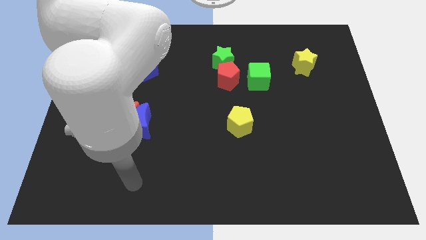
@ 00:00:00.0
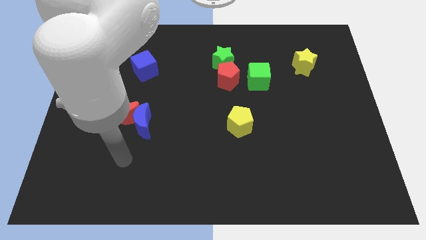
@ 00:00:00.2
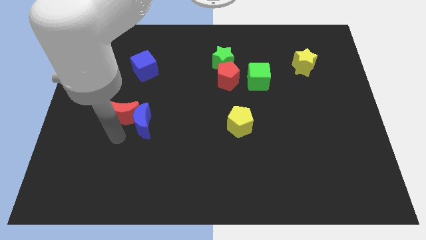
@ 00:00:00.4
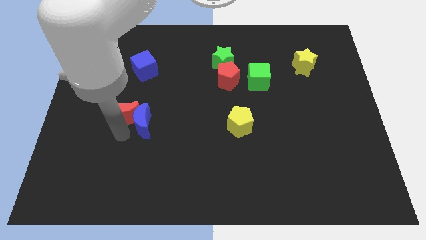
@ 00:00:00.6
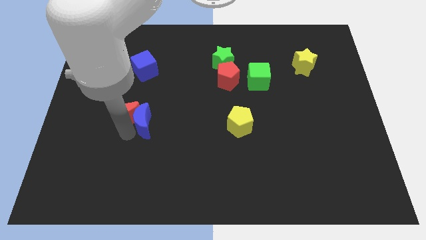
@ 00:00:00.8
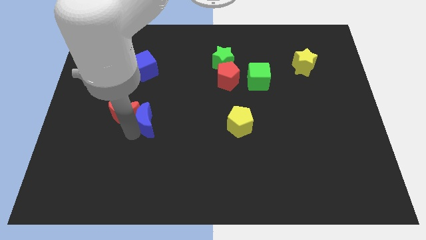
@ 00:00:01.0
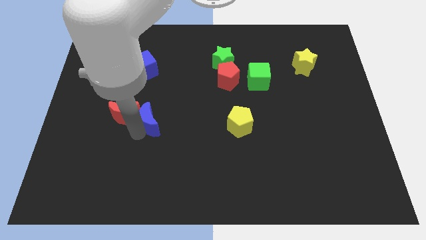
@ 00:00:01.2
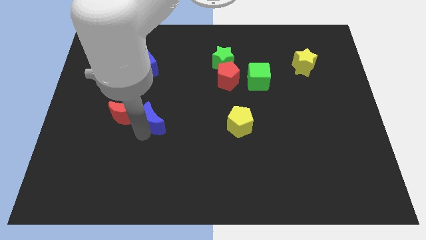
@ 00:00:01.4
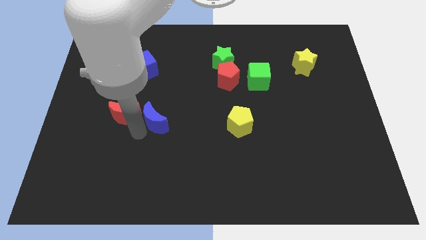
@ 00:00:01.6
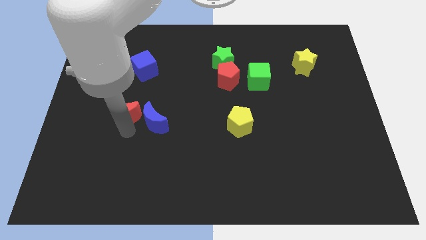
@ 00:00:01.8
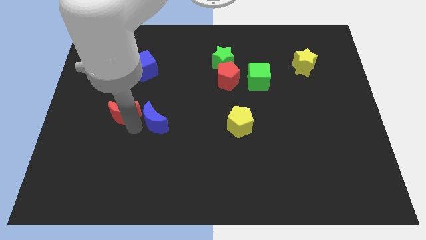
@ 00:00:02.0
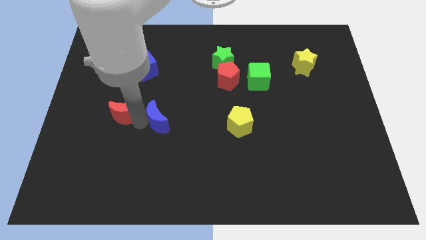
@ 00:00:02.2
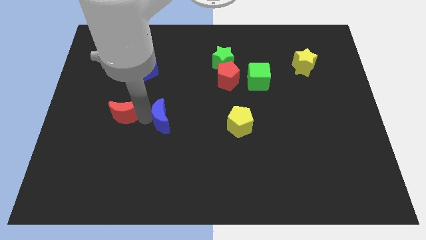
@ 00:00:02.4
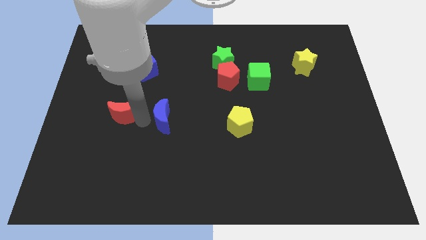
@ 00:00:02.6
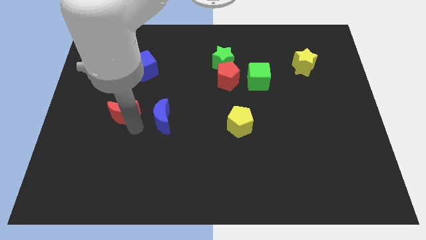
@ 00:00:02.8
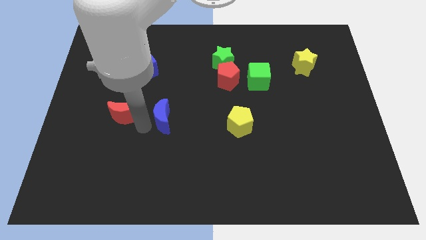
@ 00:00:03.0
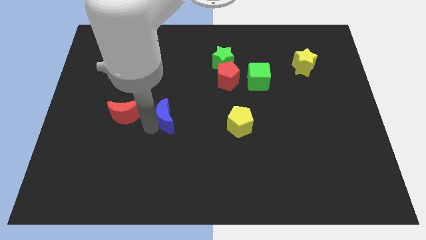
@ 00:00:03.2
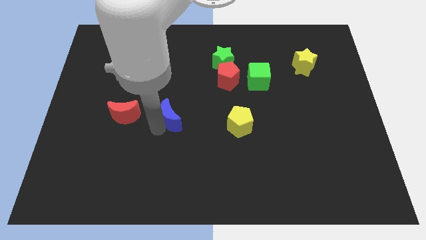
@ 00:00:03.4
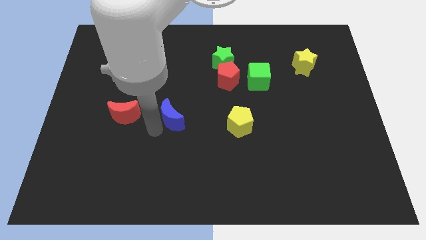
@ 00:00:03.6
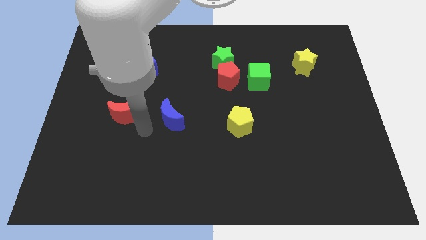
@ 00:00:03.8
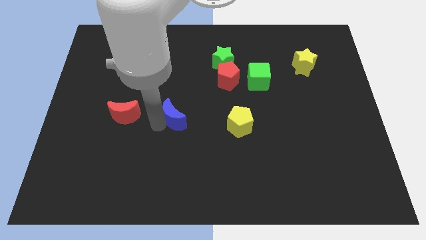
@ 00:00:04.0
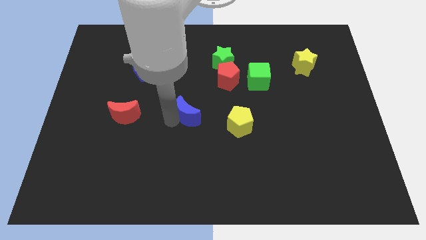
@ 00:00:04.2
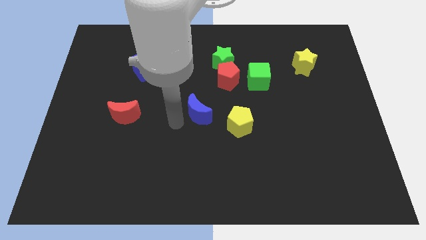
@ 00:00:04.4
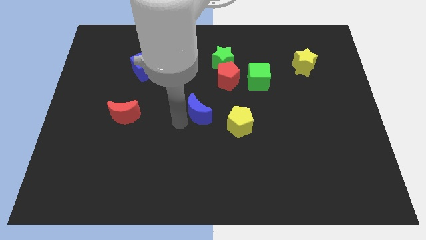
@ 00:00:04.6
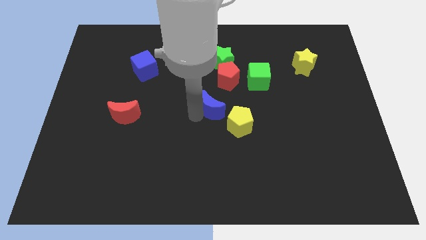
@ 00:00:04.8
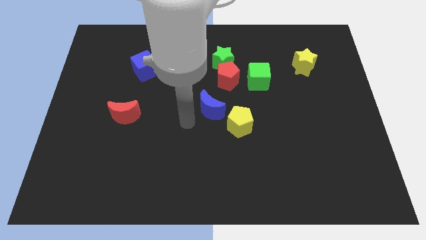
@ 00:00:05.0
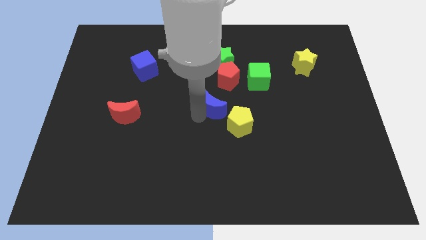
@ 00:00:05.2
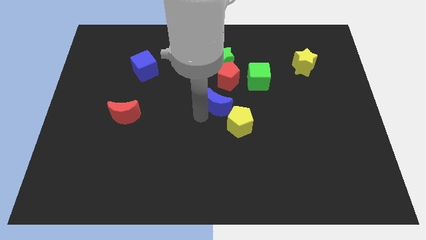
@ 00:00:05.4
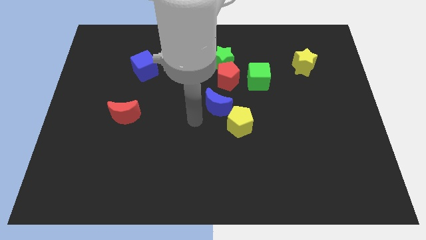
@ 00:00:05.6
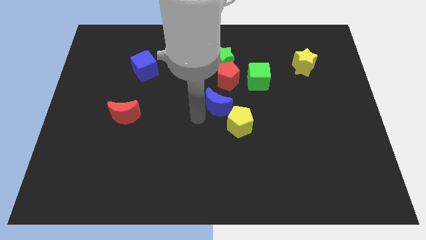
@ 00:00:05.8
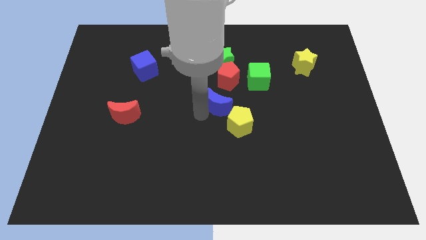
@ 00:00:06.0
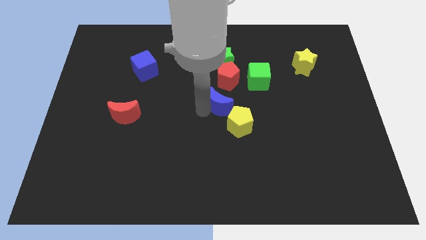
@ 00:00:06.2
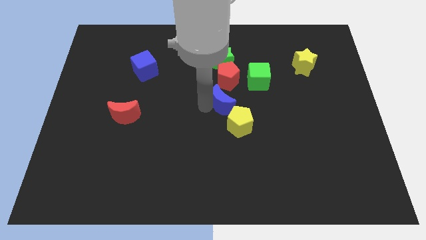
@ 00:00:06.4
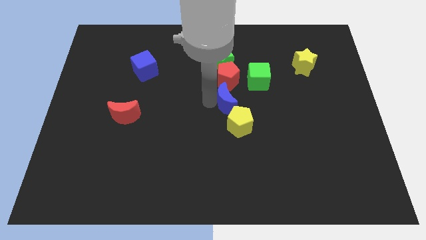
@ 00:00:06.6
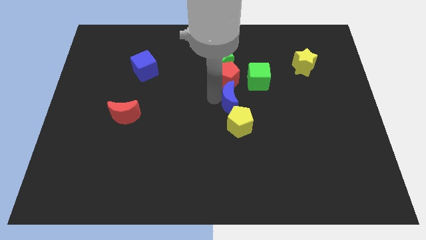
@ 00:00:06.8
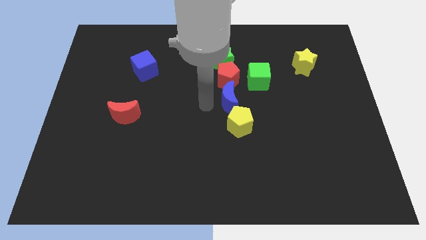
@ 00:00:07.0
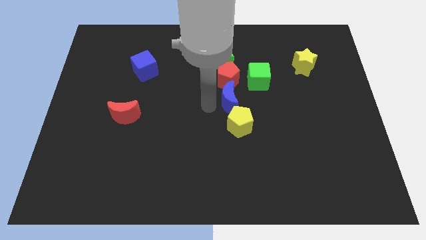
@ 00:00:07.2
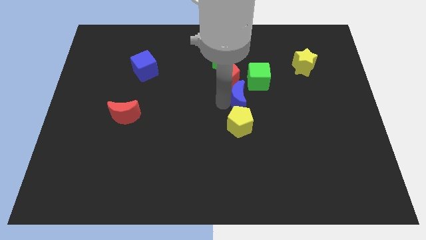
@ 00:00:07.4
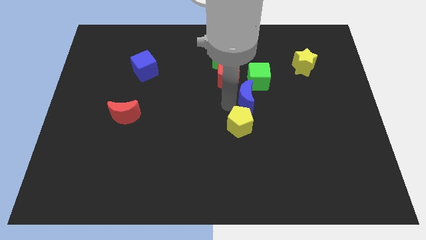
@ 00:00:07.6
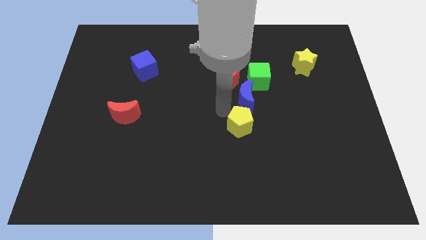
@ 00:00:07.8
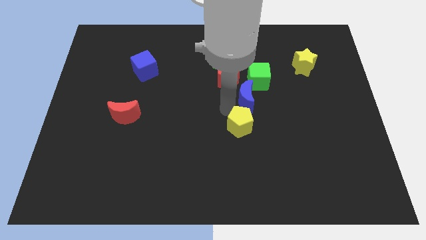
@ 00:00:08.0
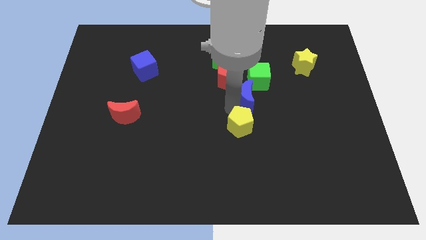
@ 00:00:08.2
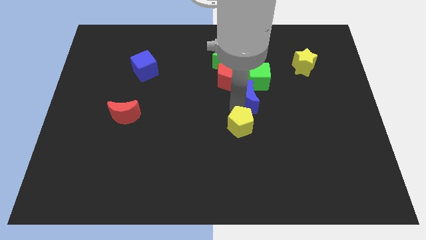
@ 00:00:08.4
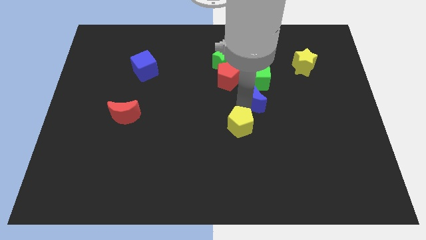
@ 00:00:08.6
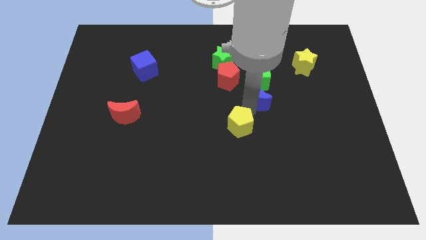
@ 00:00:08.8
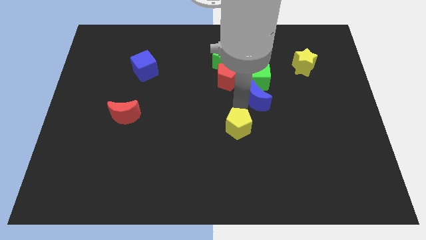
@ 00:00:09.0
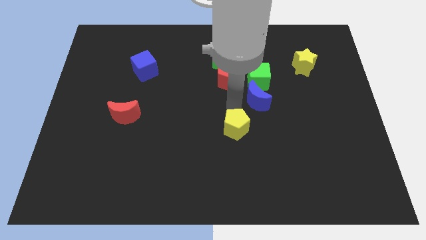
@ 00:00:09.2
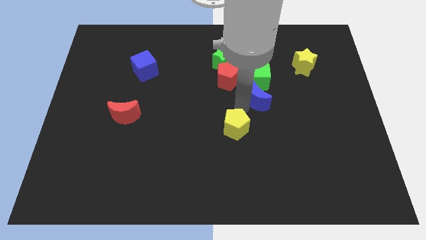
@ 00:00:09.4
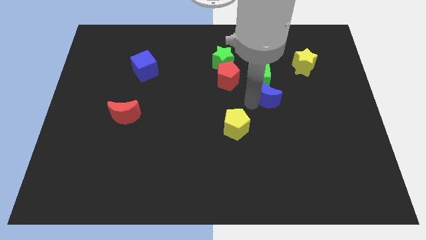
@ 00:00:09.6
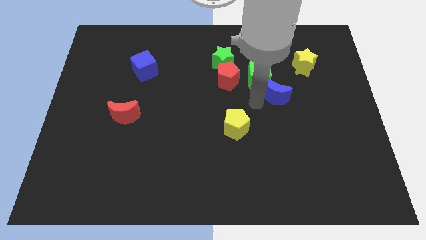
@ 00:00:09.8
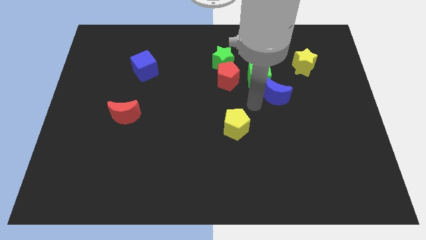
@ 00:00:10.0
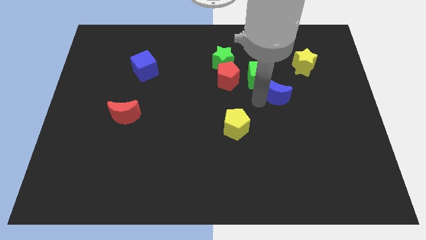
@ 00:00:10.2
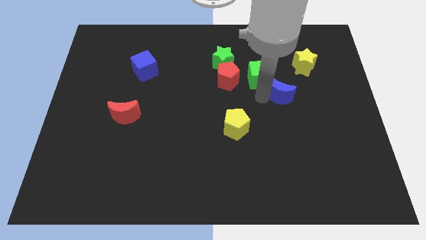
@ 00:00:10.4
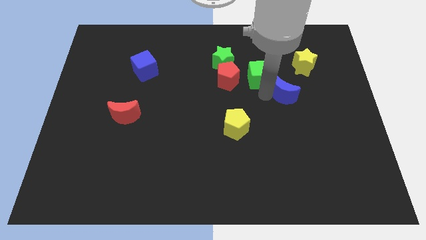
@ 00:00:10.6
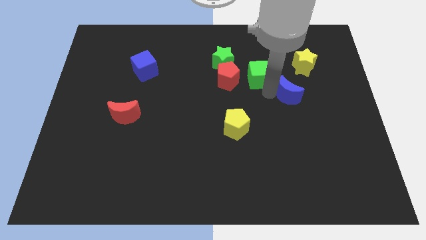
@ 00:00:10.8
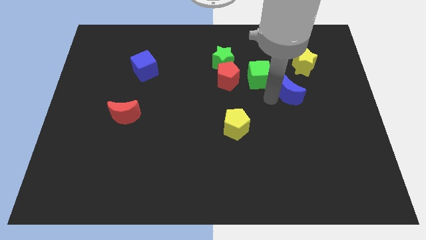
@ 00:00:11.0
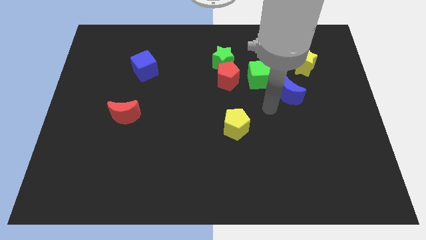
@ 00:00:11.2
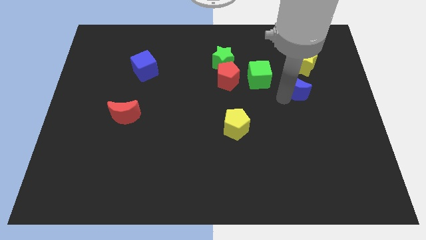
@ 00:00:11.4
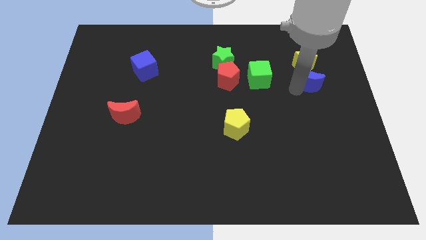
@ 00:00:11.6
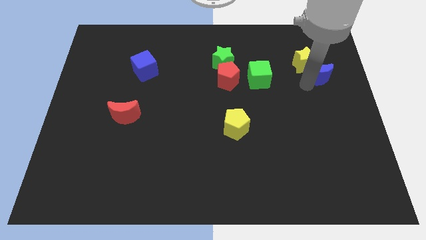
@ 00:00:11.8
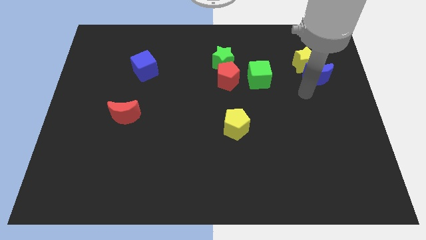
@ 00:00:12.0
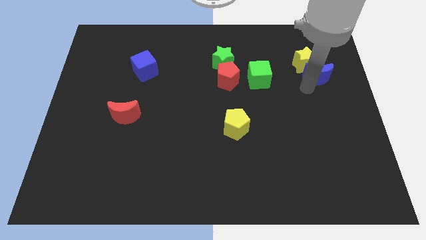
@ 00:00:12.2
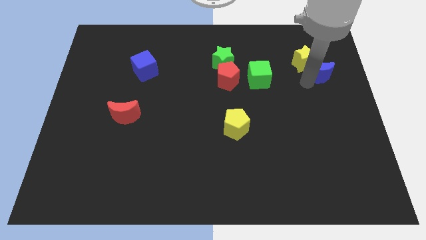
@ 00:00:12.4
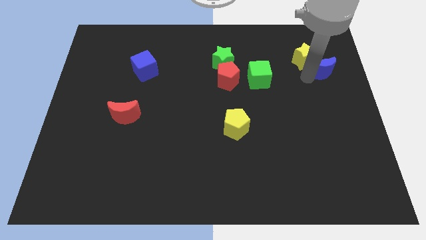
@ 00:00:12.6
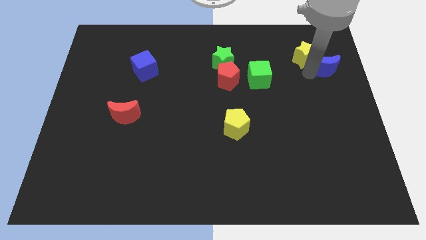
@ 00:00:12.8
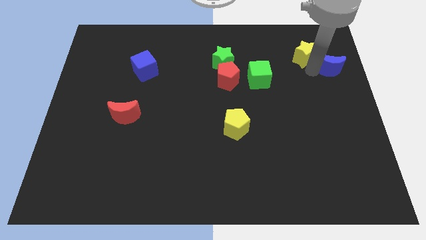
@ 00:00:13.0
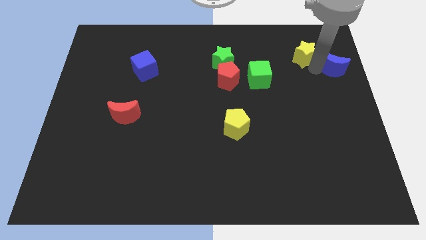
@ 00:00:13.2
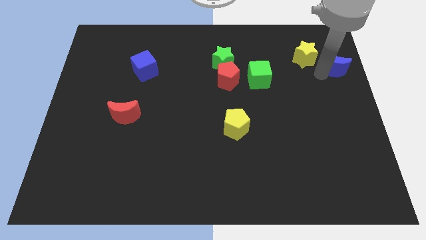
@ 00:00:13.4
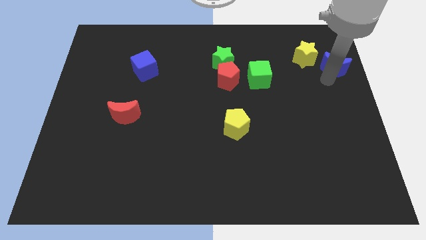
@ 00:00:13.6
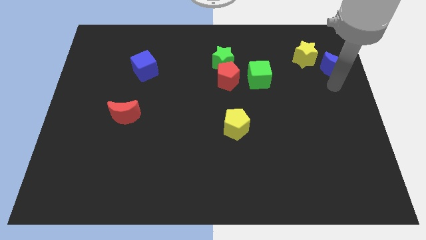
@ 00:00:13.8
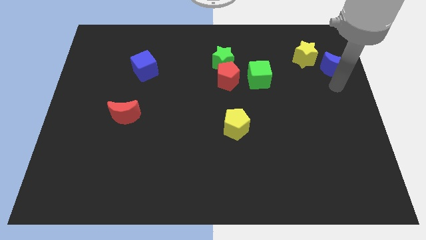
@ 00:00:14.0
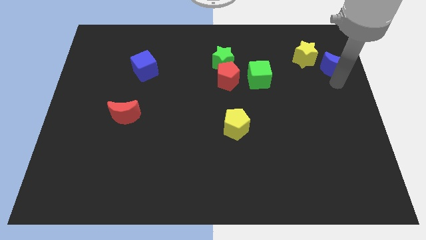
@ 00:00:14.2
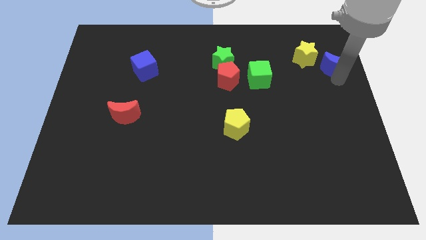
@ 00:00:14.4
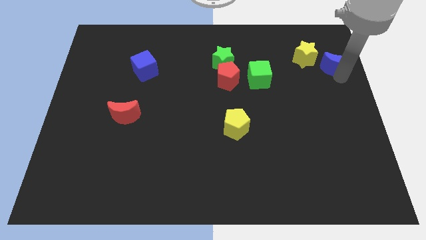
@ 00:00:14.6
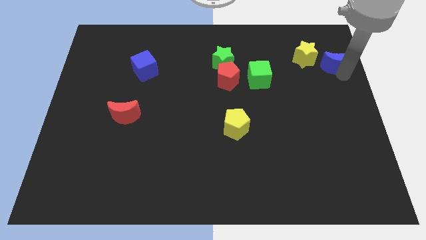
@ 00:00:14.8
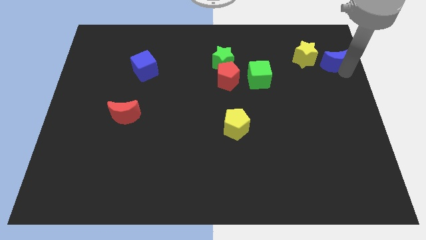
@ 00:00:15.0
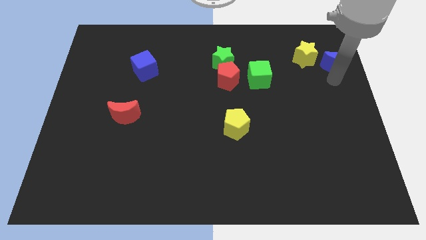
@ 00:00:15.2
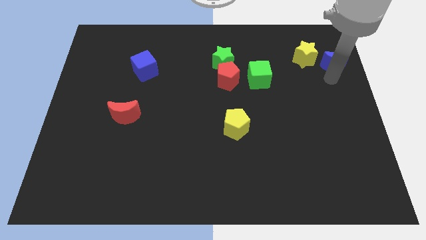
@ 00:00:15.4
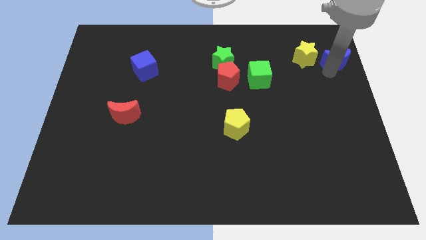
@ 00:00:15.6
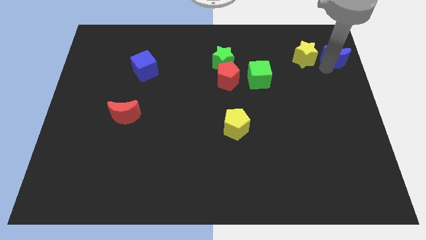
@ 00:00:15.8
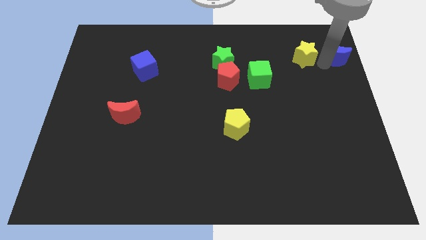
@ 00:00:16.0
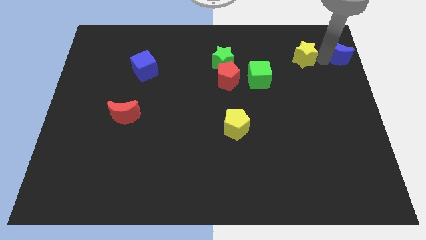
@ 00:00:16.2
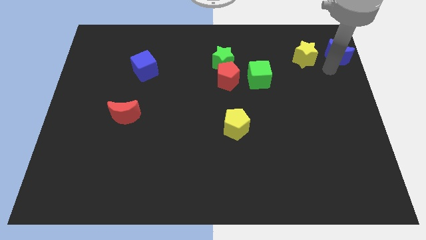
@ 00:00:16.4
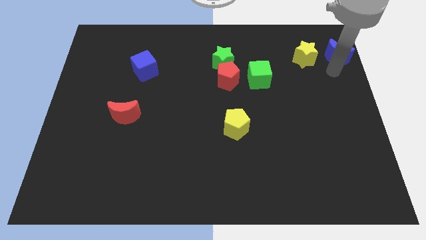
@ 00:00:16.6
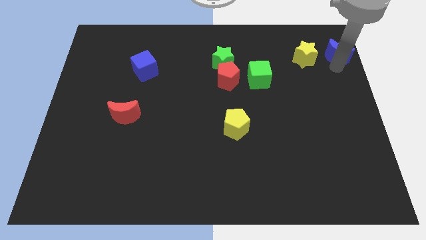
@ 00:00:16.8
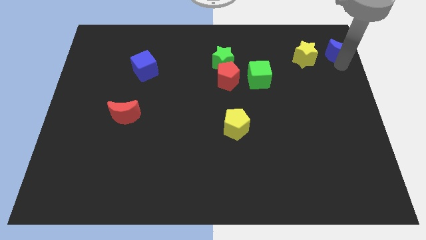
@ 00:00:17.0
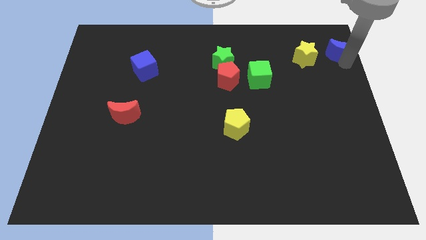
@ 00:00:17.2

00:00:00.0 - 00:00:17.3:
slide the blue moon to the top right
